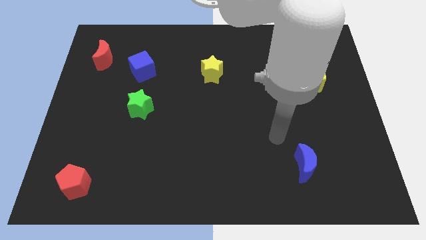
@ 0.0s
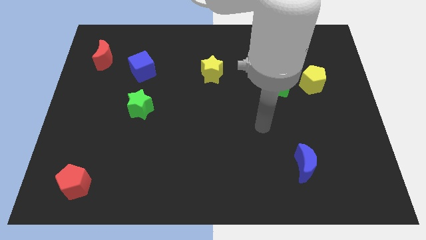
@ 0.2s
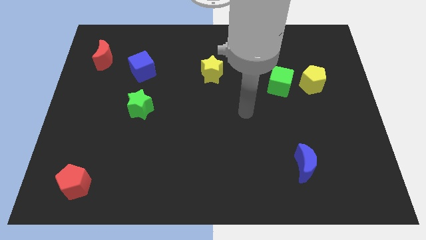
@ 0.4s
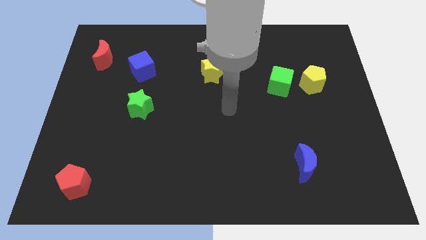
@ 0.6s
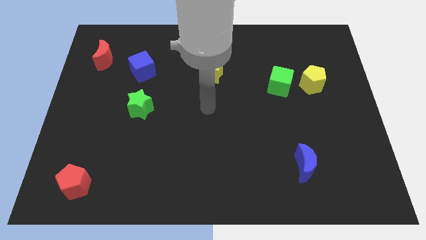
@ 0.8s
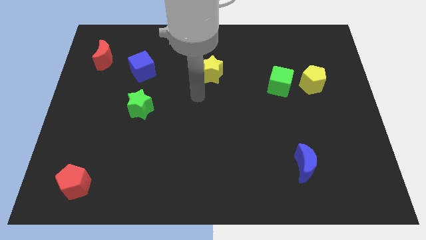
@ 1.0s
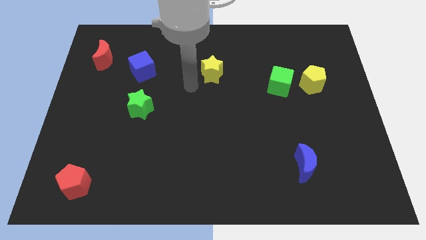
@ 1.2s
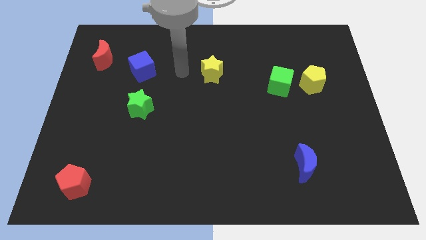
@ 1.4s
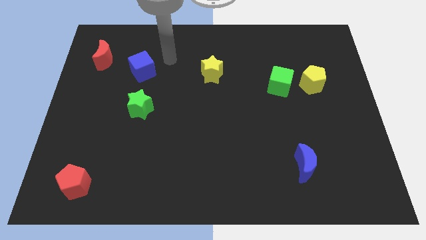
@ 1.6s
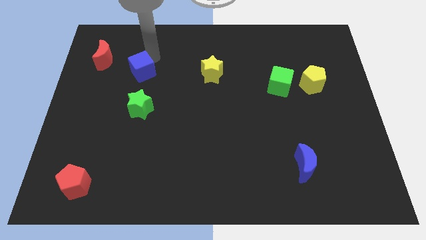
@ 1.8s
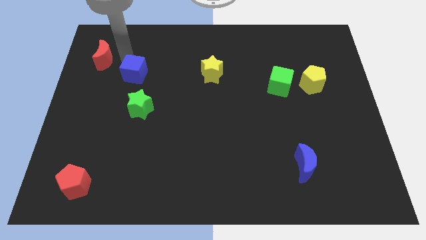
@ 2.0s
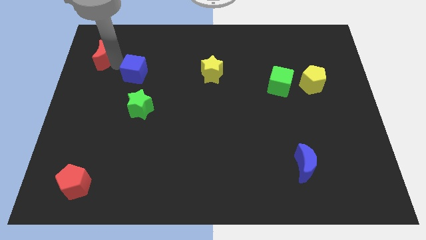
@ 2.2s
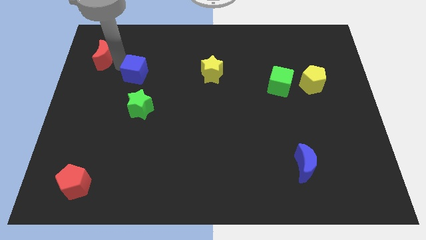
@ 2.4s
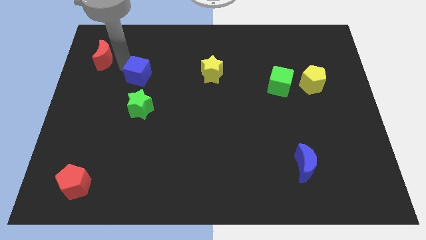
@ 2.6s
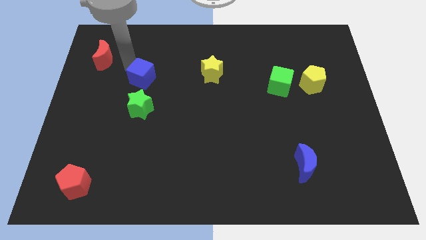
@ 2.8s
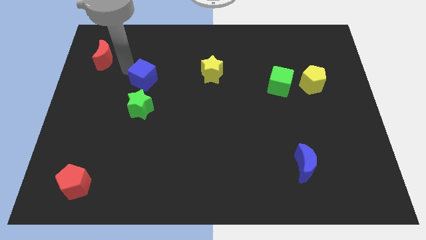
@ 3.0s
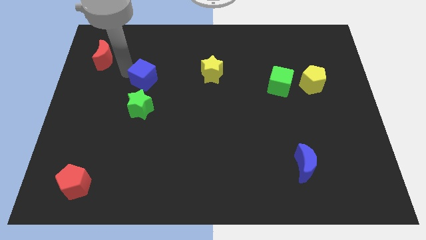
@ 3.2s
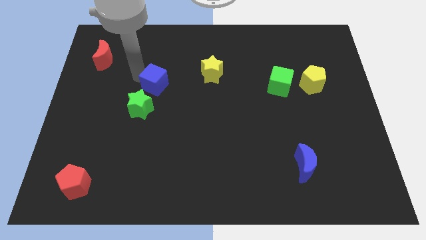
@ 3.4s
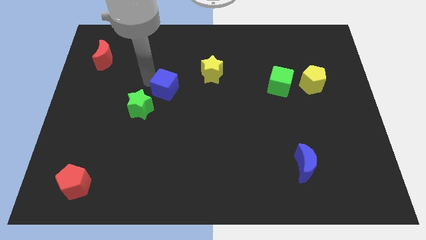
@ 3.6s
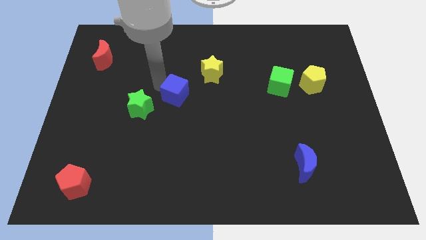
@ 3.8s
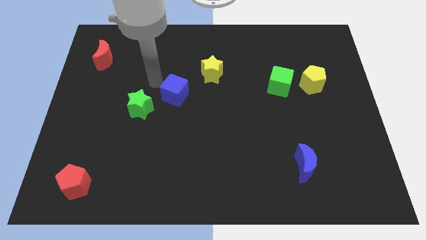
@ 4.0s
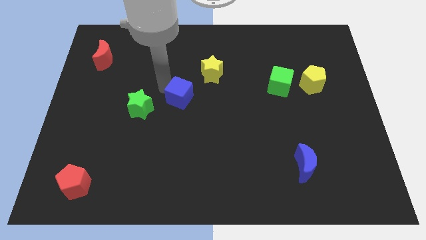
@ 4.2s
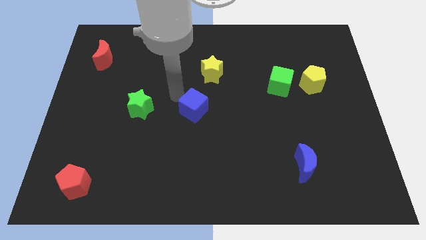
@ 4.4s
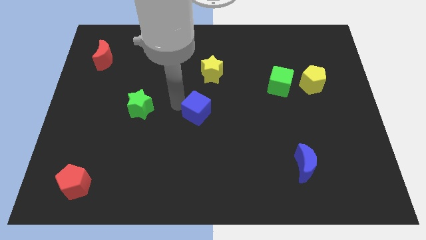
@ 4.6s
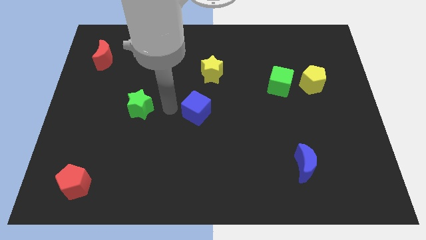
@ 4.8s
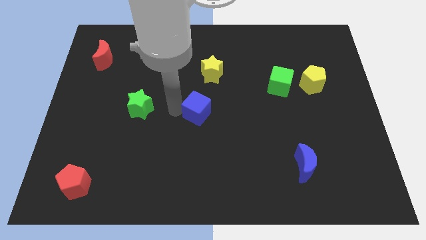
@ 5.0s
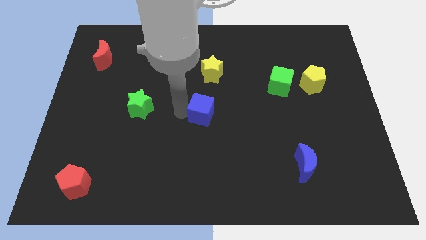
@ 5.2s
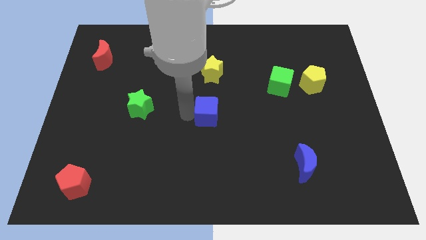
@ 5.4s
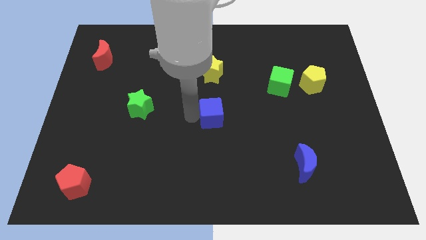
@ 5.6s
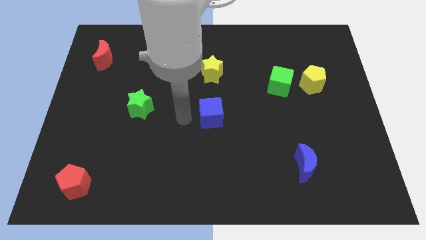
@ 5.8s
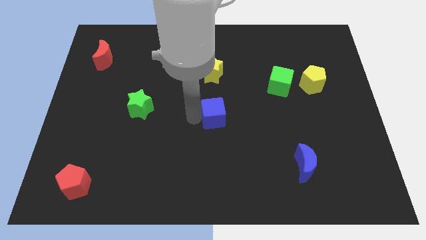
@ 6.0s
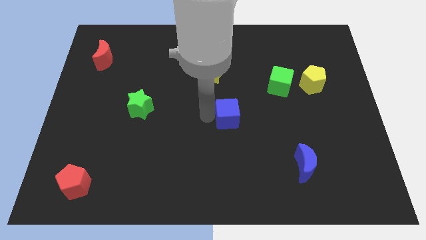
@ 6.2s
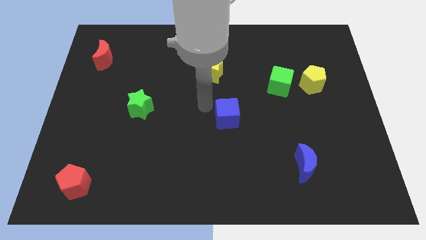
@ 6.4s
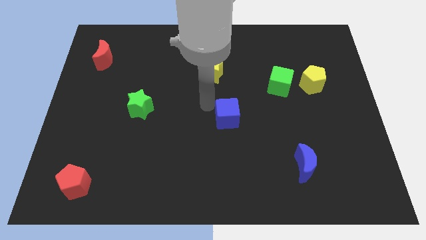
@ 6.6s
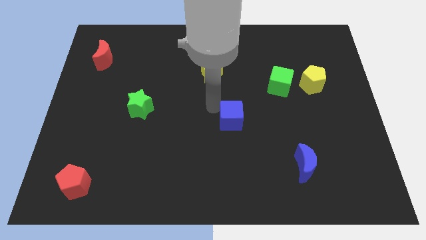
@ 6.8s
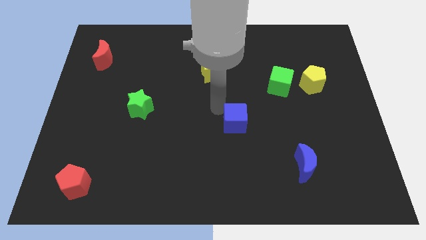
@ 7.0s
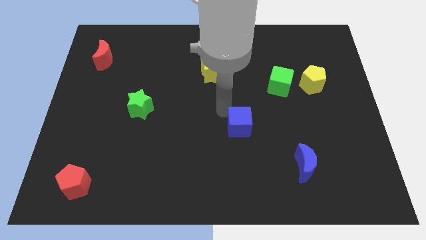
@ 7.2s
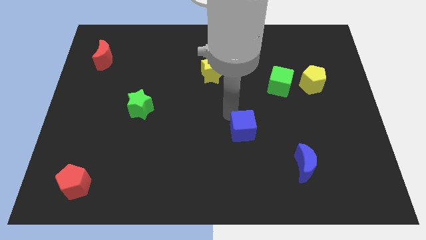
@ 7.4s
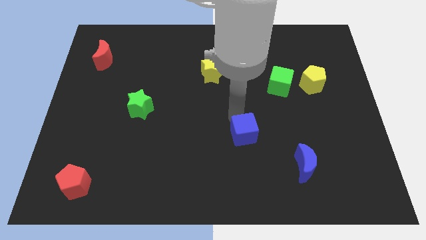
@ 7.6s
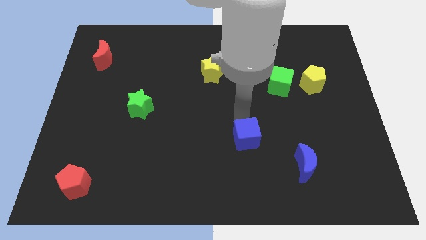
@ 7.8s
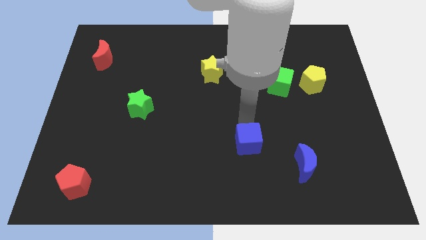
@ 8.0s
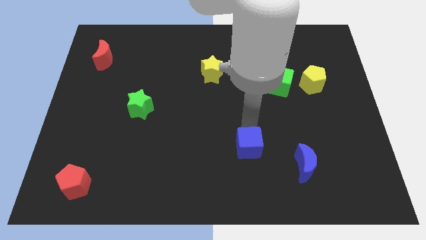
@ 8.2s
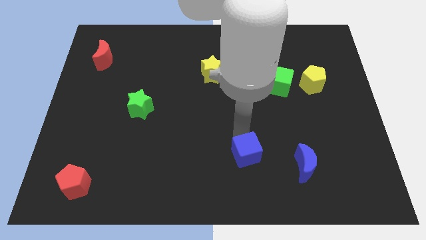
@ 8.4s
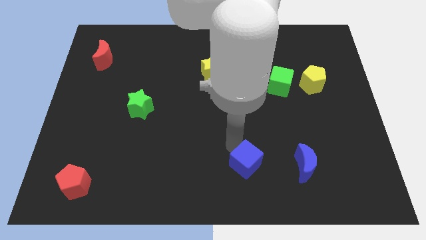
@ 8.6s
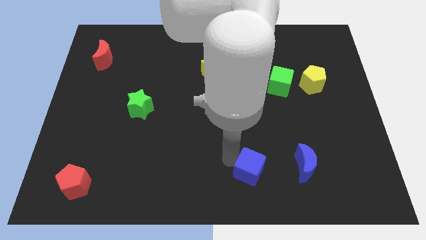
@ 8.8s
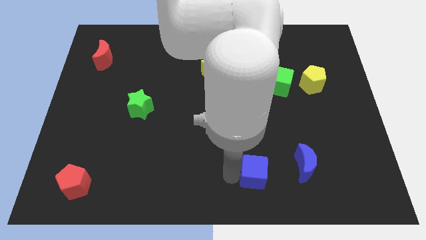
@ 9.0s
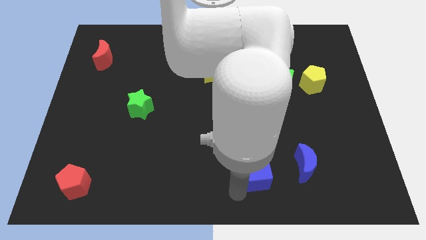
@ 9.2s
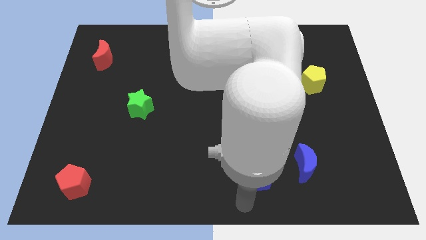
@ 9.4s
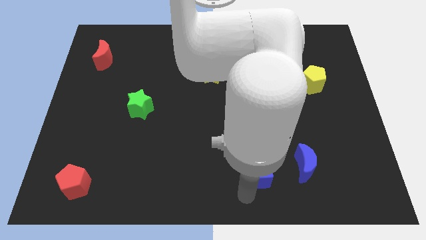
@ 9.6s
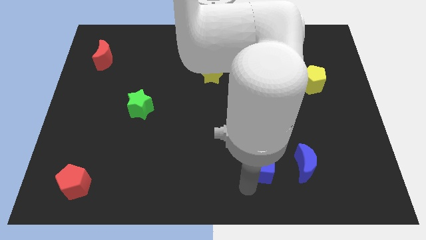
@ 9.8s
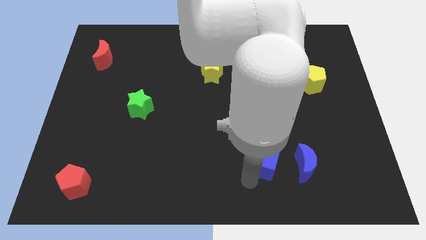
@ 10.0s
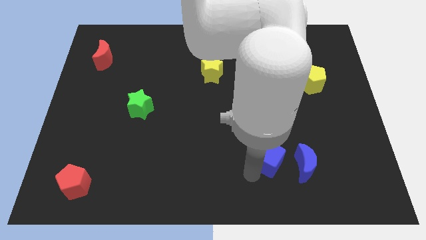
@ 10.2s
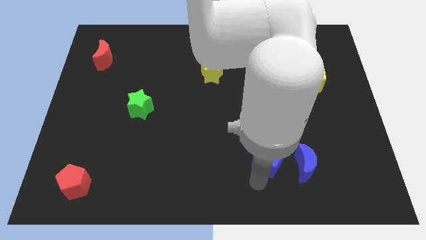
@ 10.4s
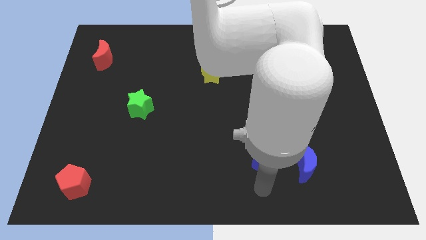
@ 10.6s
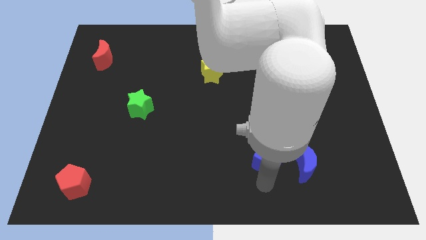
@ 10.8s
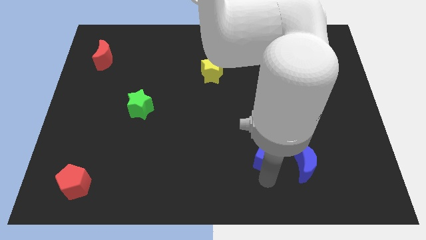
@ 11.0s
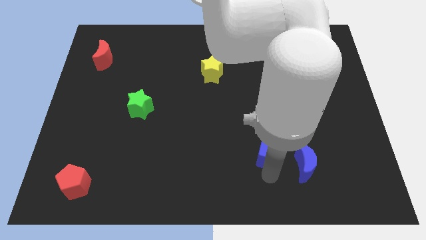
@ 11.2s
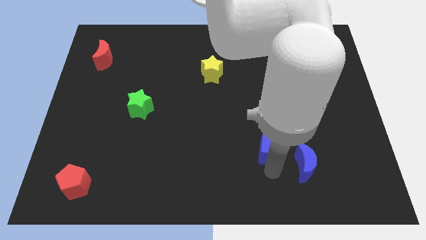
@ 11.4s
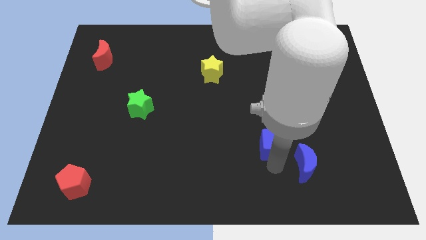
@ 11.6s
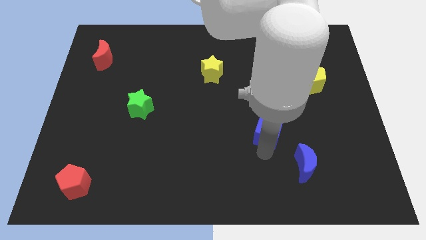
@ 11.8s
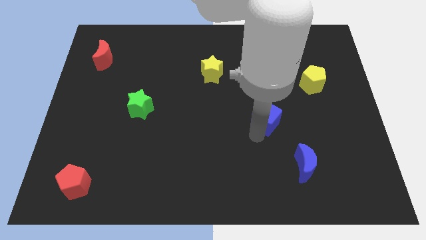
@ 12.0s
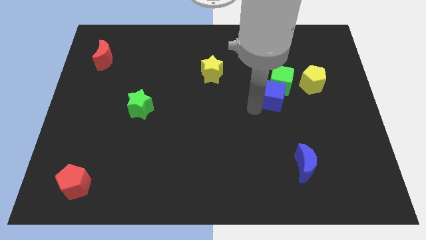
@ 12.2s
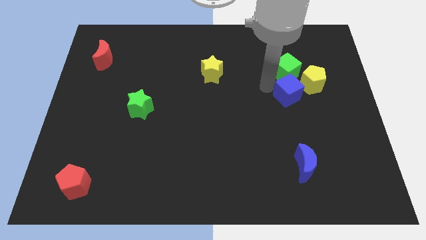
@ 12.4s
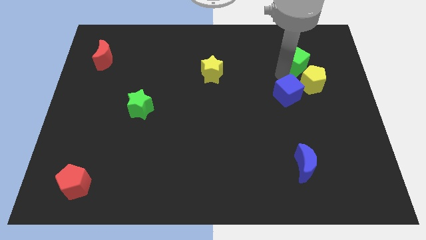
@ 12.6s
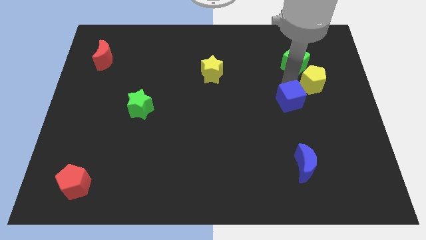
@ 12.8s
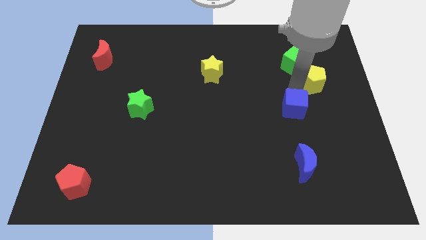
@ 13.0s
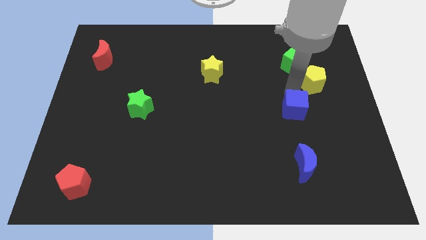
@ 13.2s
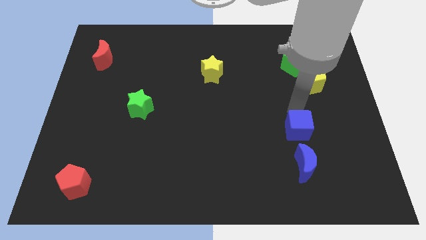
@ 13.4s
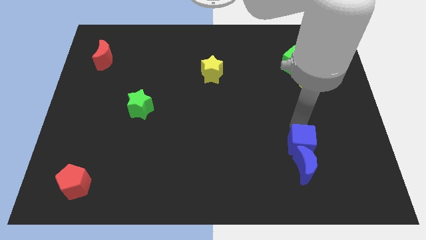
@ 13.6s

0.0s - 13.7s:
slide the blue cube close to the blue moon

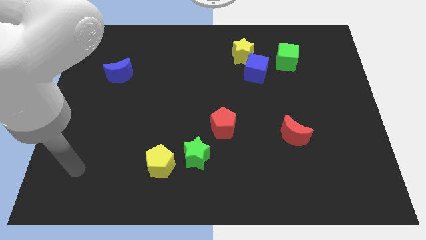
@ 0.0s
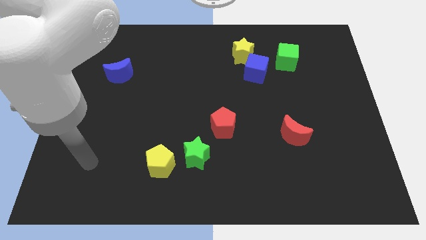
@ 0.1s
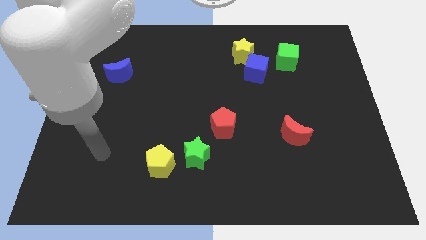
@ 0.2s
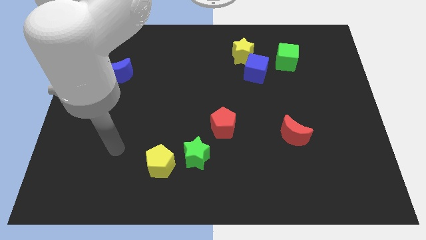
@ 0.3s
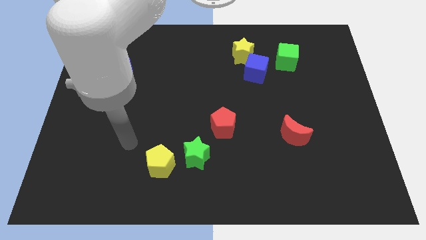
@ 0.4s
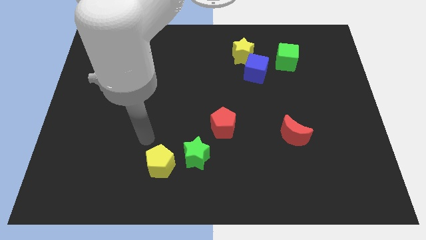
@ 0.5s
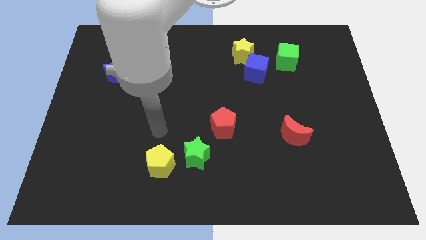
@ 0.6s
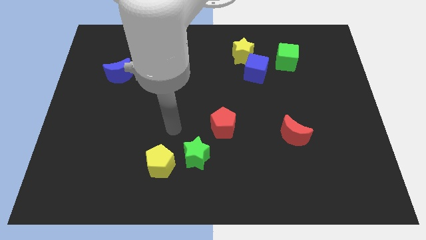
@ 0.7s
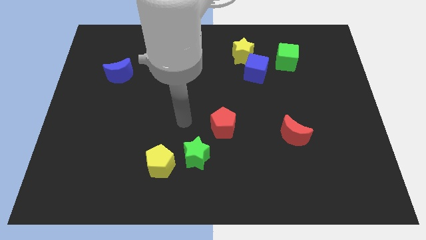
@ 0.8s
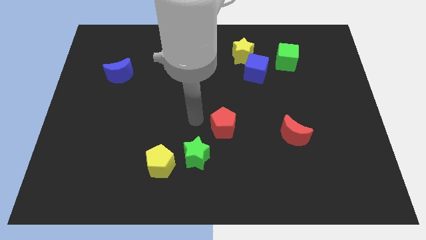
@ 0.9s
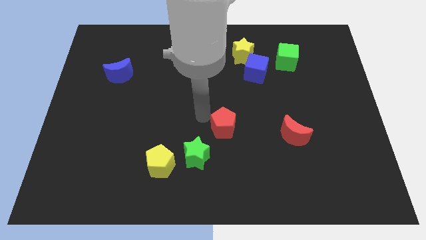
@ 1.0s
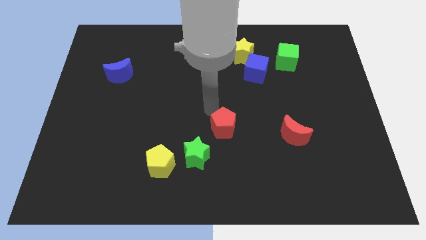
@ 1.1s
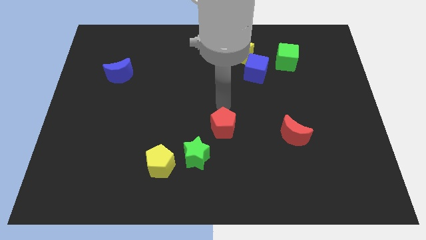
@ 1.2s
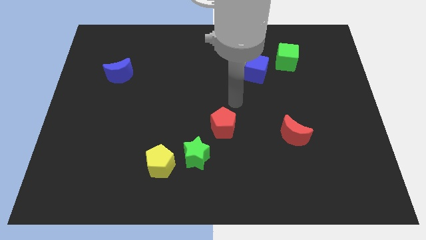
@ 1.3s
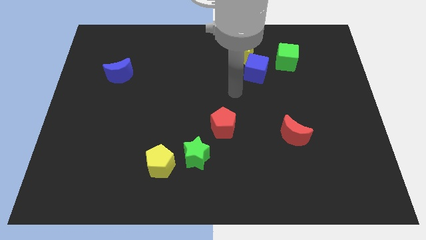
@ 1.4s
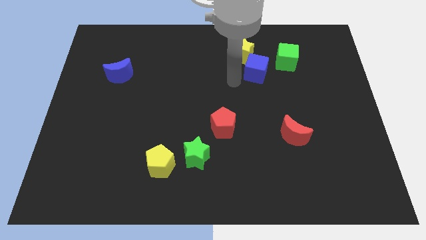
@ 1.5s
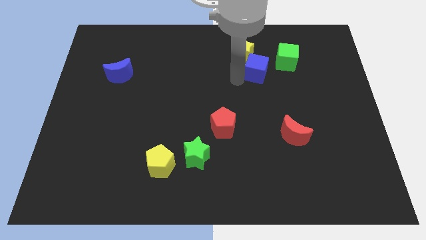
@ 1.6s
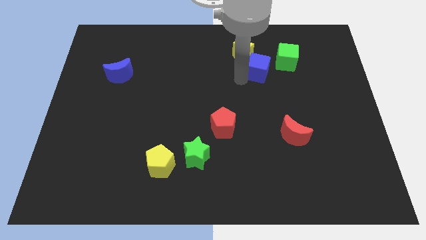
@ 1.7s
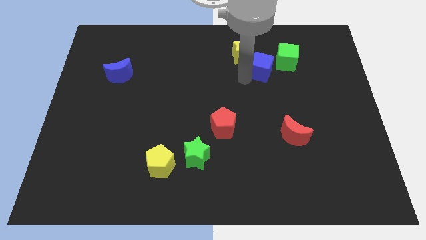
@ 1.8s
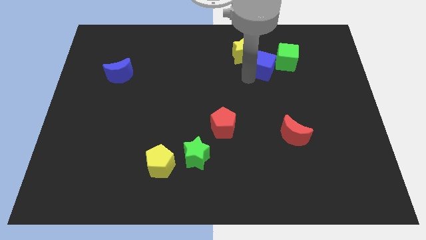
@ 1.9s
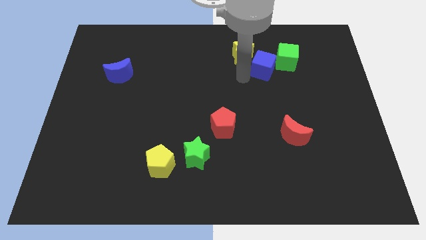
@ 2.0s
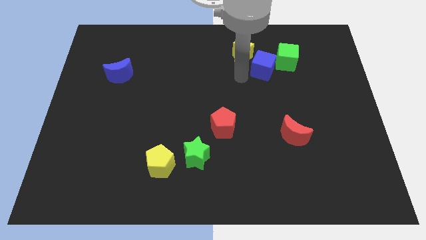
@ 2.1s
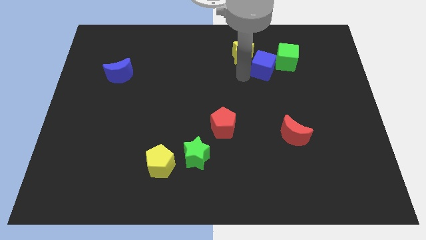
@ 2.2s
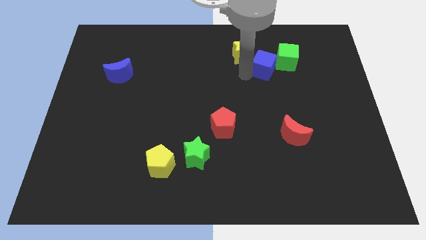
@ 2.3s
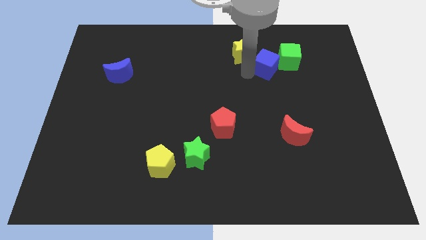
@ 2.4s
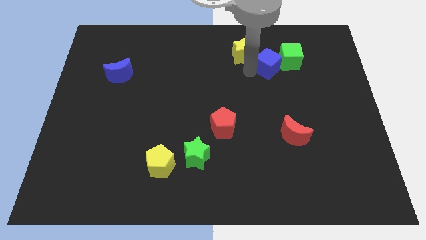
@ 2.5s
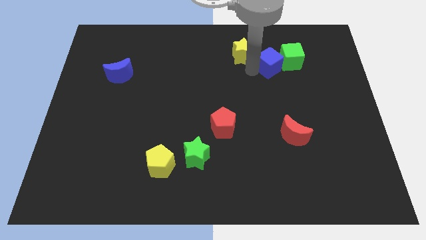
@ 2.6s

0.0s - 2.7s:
slide the blue cube towards the green cube
